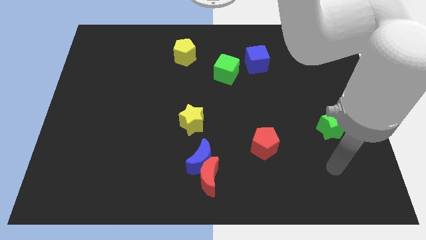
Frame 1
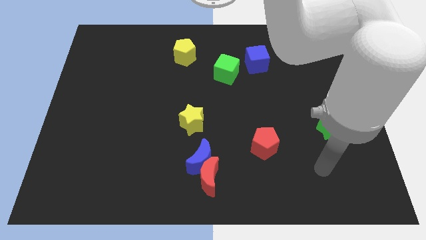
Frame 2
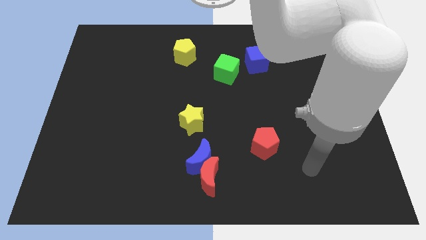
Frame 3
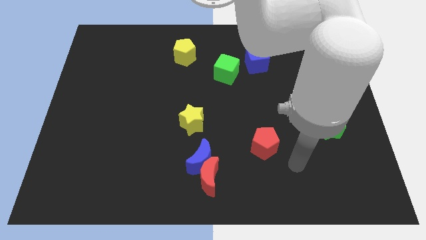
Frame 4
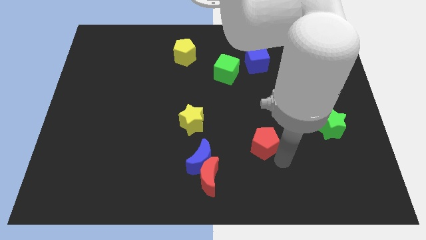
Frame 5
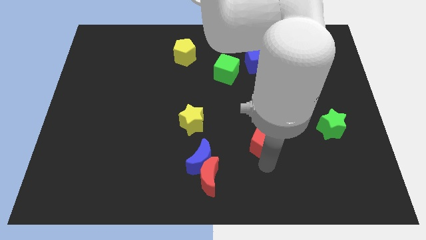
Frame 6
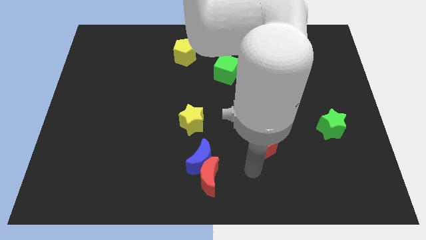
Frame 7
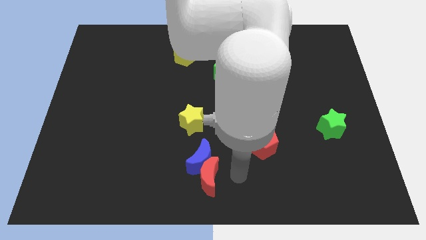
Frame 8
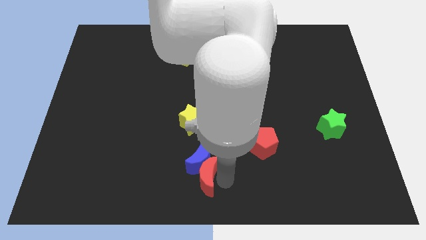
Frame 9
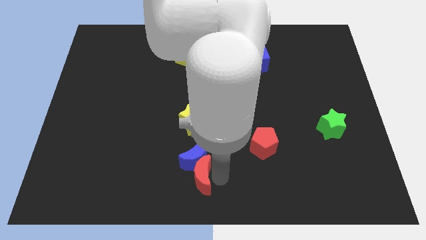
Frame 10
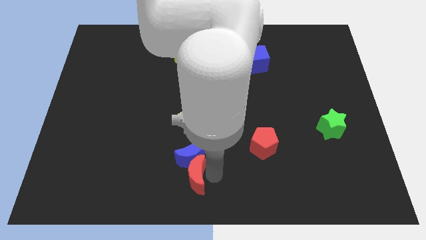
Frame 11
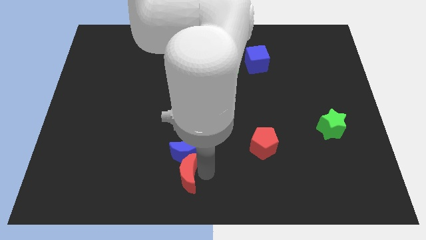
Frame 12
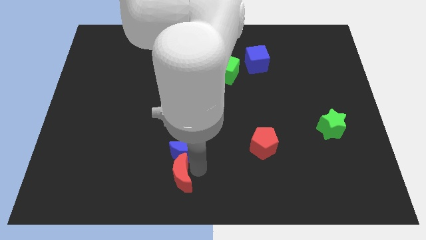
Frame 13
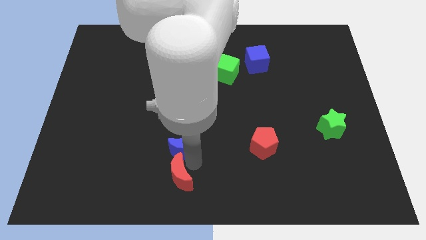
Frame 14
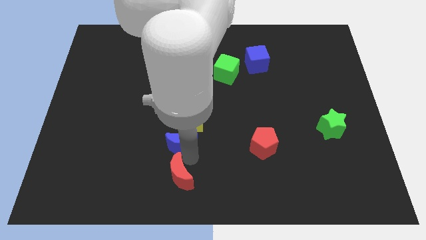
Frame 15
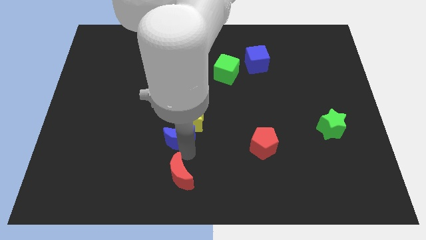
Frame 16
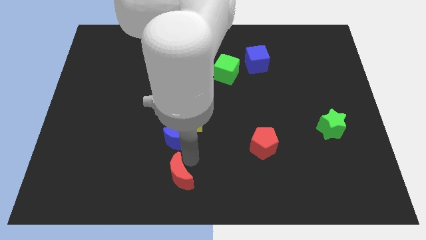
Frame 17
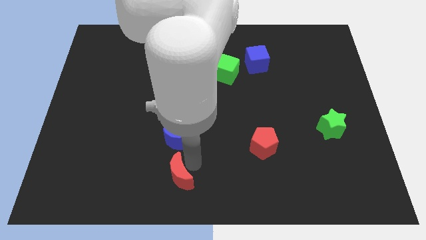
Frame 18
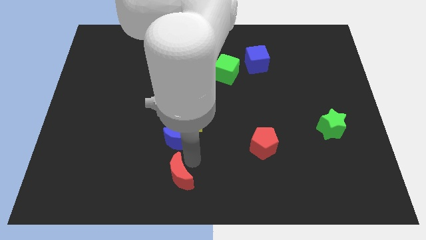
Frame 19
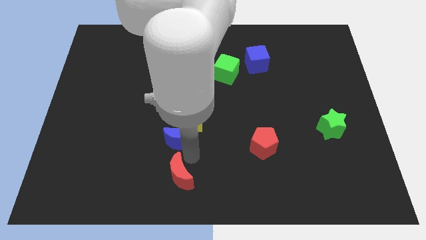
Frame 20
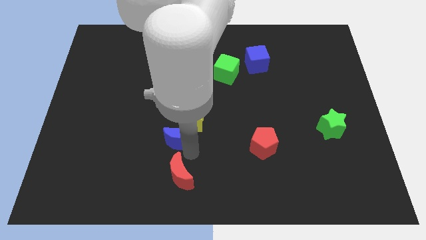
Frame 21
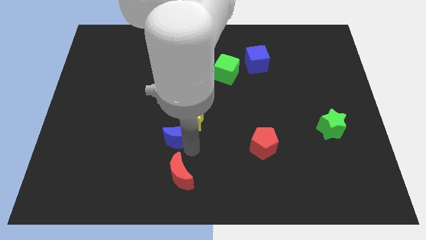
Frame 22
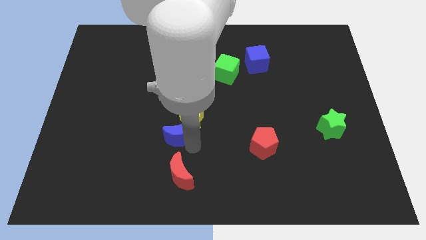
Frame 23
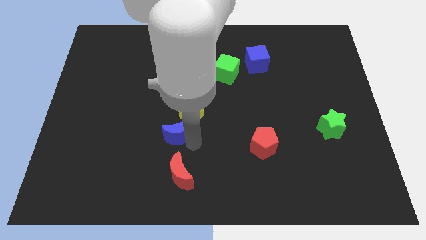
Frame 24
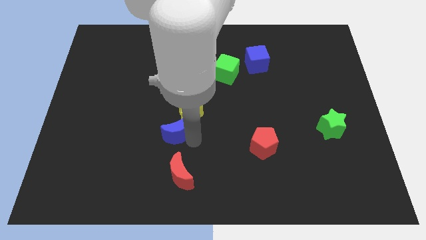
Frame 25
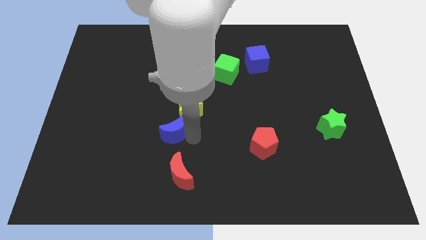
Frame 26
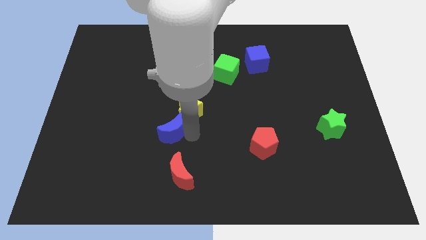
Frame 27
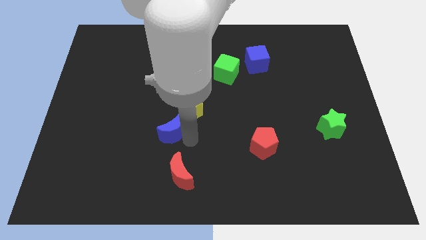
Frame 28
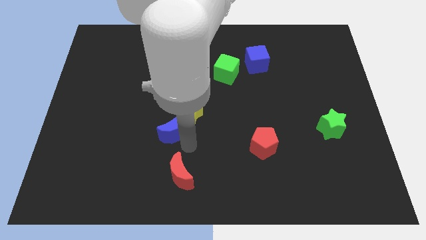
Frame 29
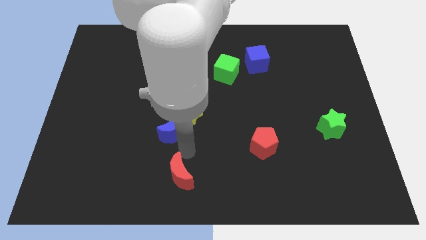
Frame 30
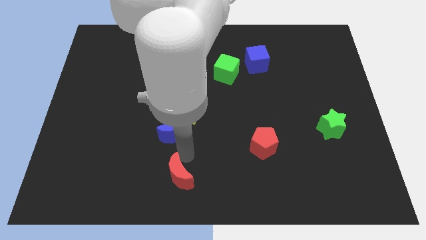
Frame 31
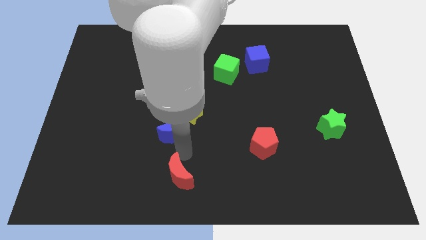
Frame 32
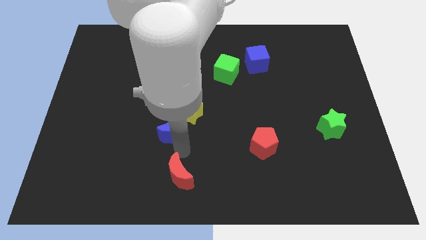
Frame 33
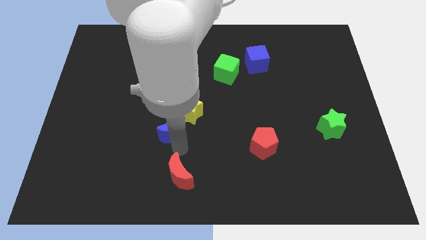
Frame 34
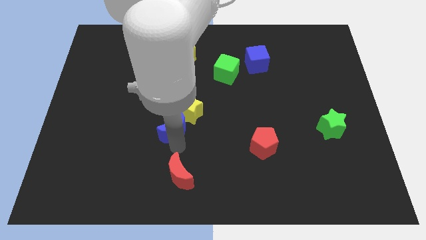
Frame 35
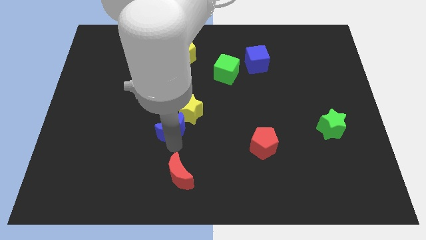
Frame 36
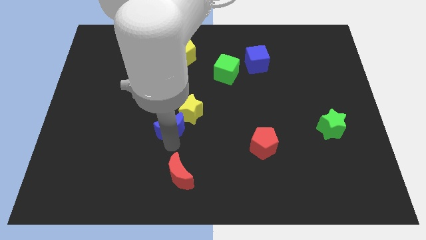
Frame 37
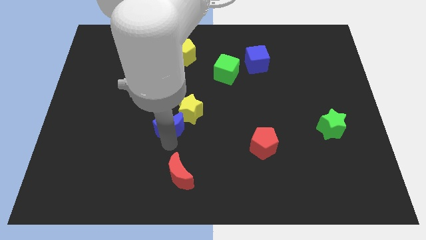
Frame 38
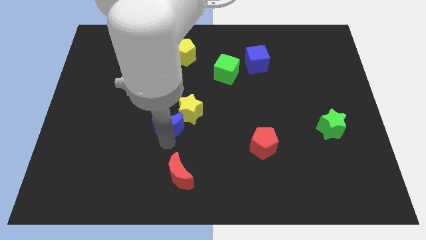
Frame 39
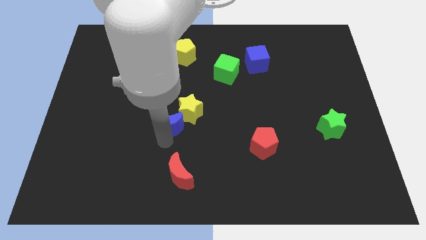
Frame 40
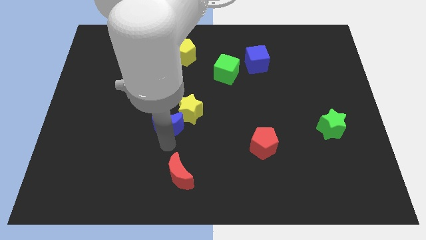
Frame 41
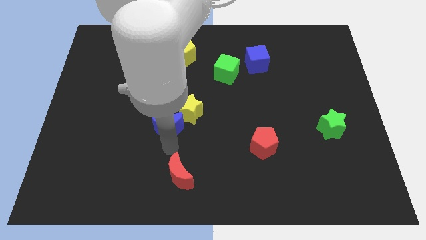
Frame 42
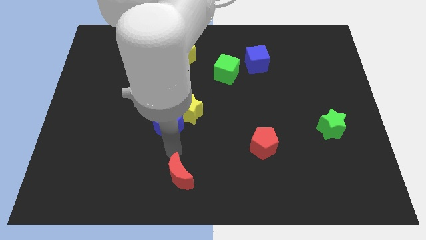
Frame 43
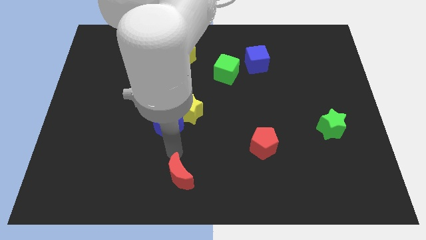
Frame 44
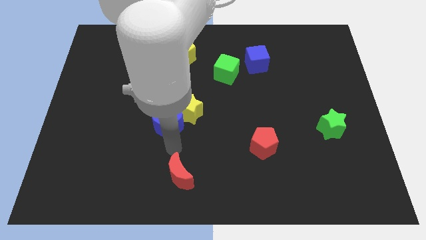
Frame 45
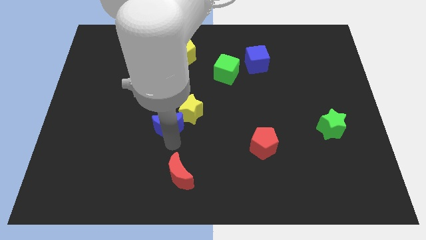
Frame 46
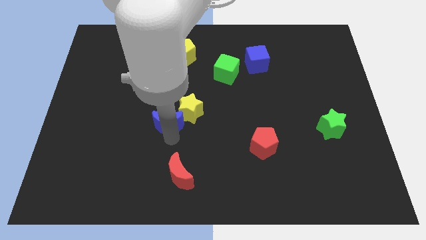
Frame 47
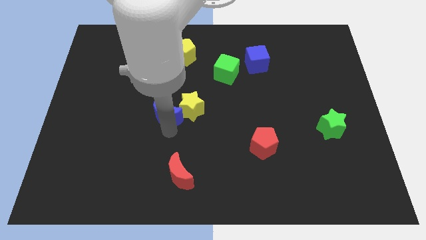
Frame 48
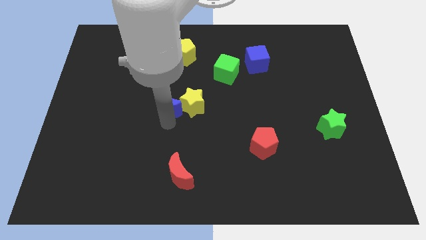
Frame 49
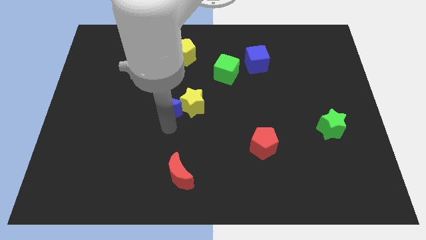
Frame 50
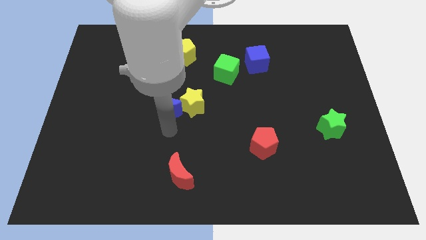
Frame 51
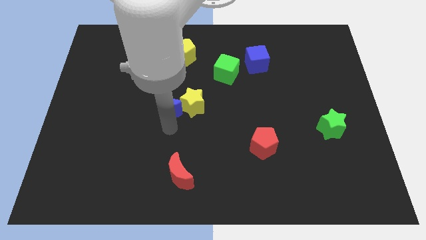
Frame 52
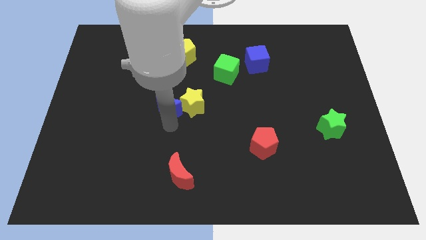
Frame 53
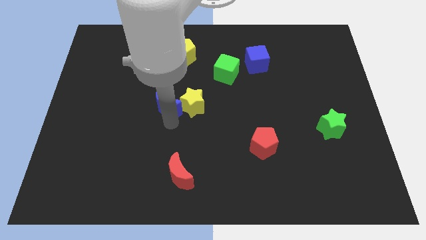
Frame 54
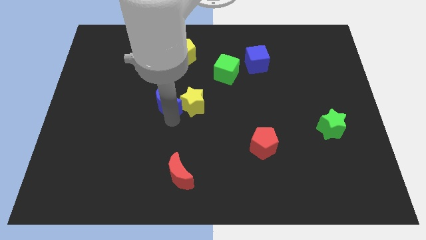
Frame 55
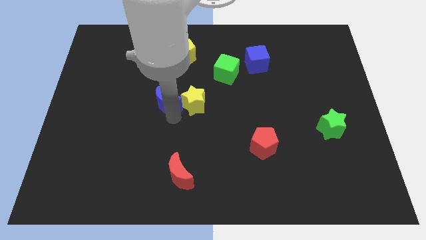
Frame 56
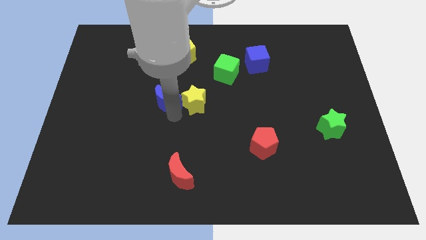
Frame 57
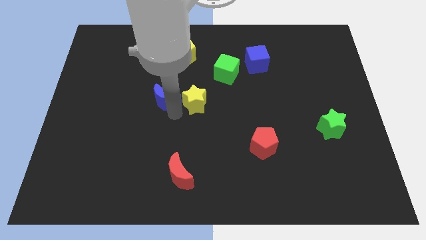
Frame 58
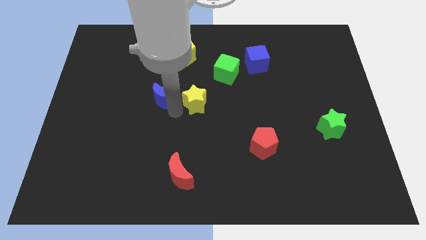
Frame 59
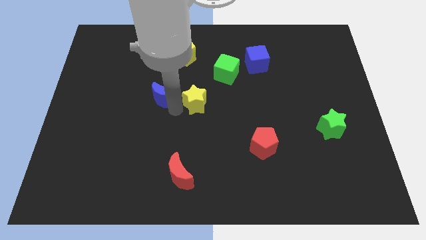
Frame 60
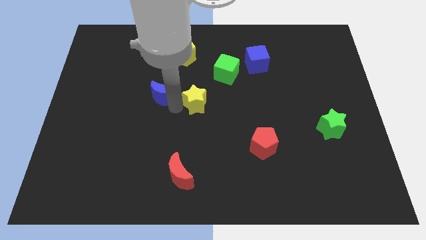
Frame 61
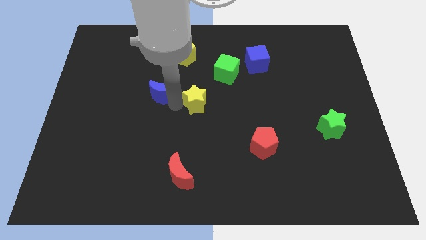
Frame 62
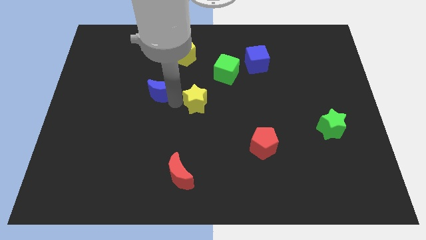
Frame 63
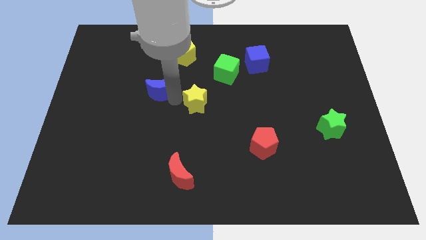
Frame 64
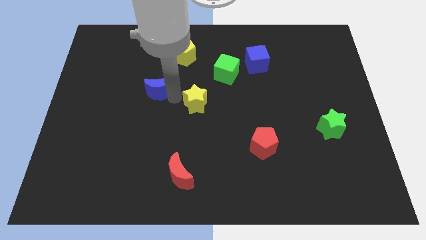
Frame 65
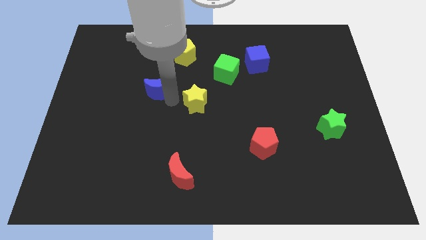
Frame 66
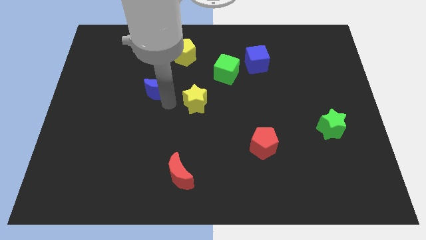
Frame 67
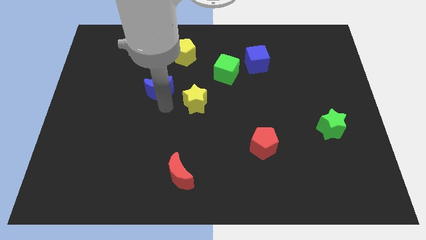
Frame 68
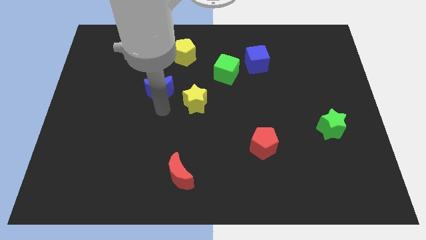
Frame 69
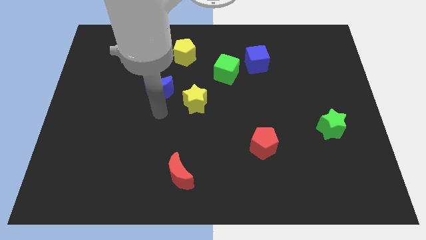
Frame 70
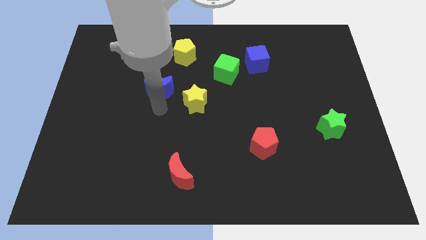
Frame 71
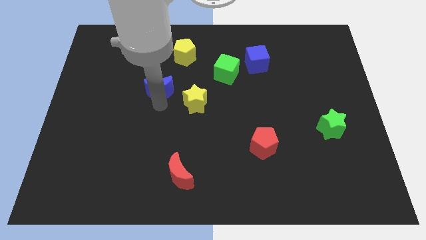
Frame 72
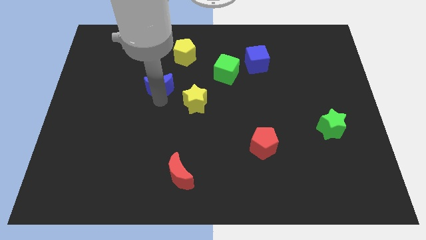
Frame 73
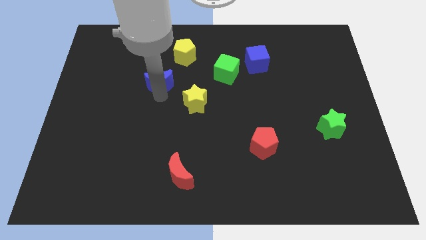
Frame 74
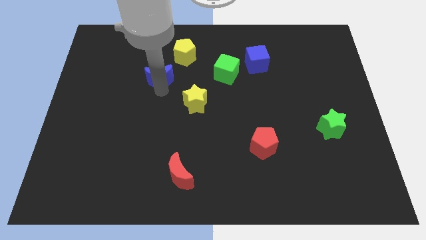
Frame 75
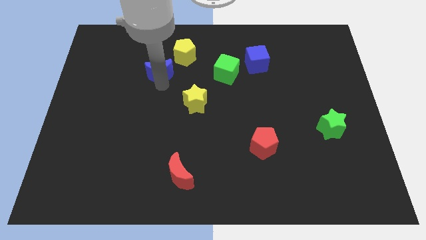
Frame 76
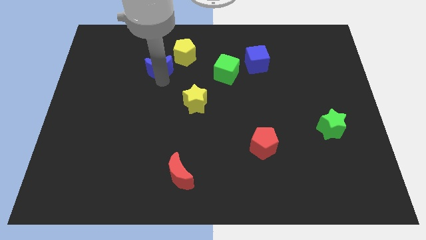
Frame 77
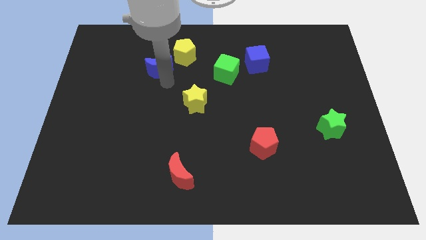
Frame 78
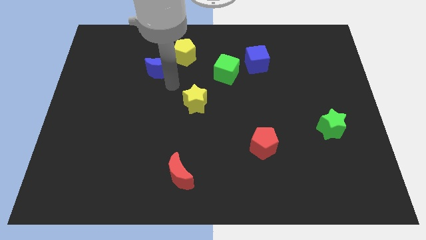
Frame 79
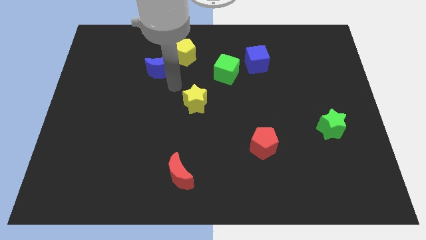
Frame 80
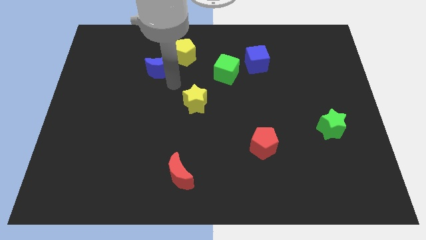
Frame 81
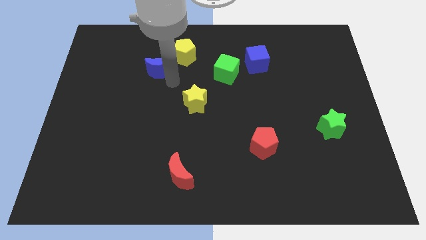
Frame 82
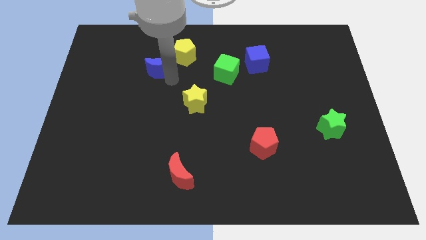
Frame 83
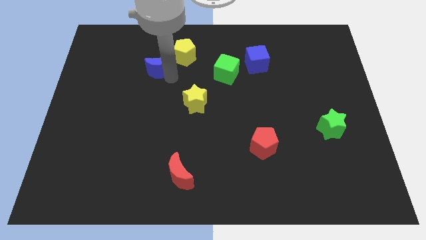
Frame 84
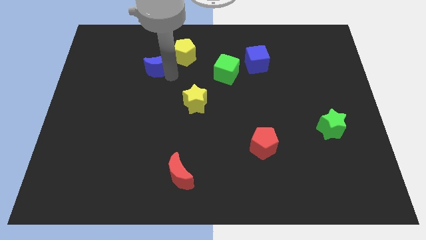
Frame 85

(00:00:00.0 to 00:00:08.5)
put the blue moon left of the yellow pentagon
